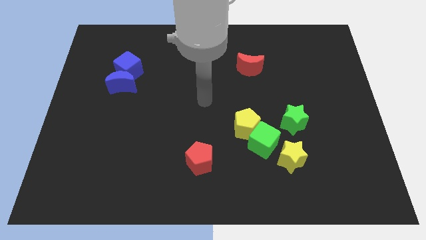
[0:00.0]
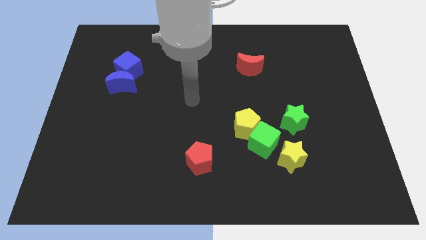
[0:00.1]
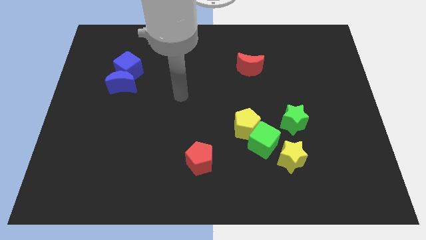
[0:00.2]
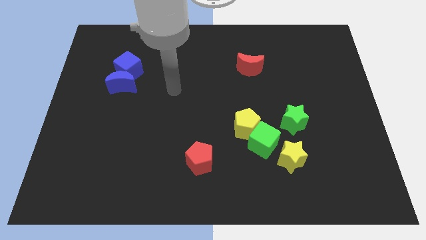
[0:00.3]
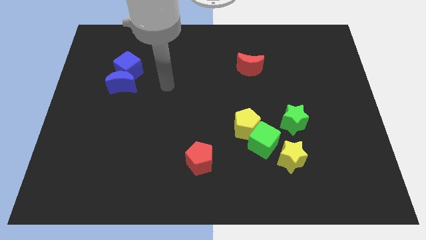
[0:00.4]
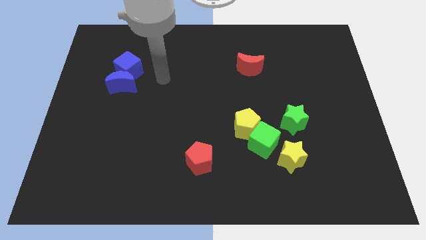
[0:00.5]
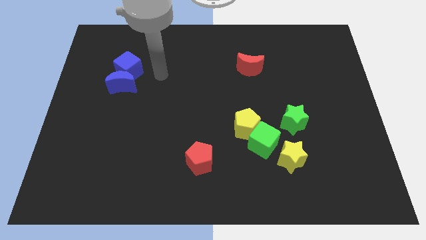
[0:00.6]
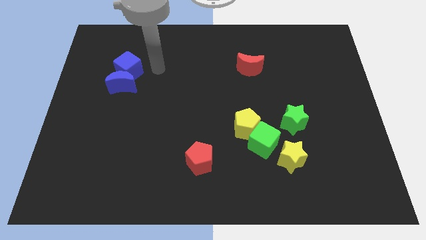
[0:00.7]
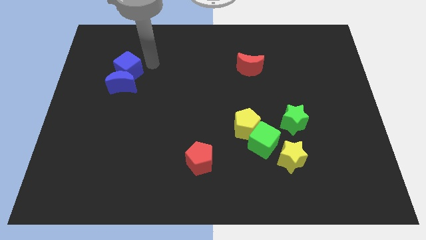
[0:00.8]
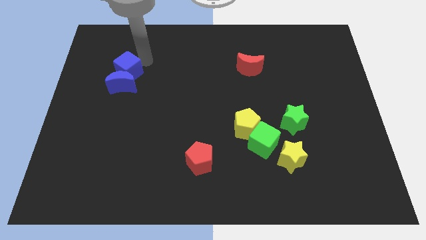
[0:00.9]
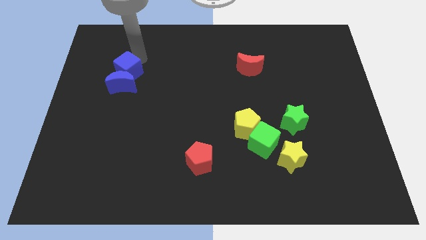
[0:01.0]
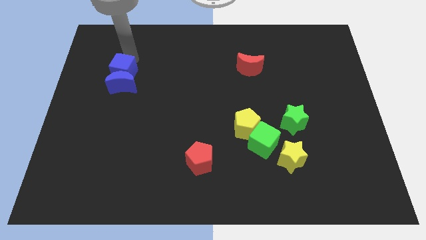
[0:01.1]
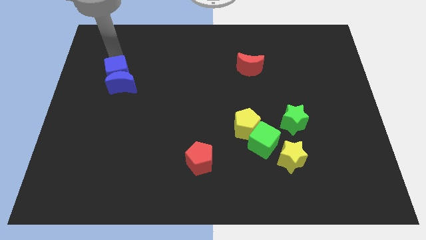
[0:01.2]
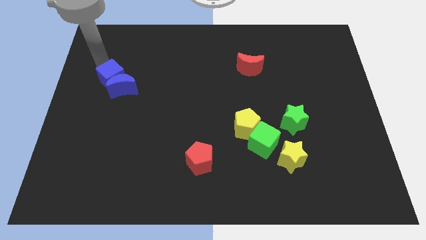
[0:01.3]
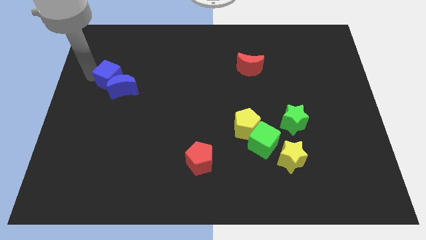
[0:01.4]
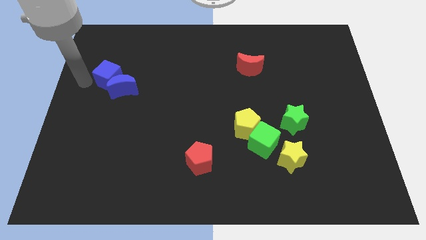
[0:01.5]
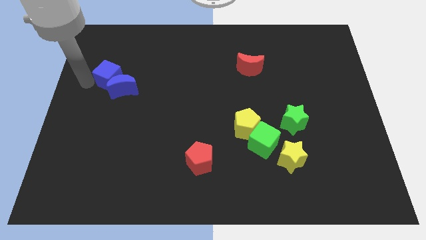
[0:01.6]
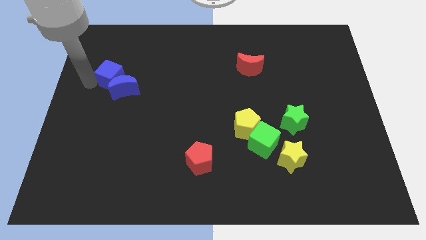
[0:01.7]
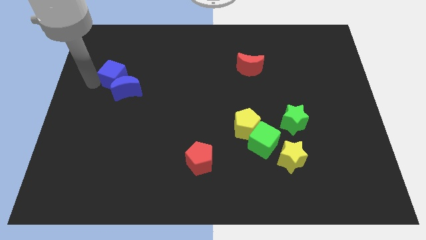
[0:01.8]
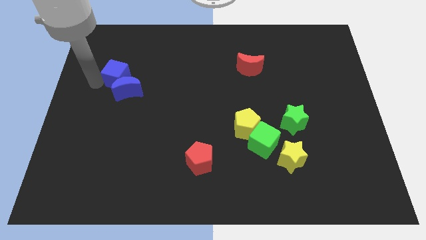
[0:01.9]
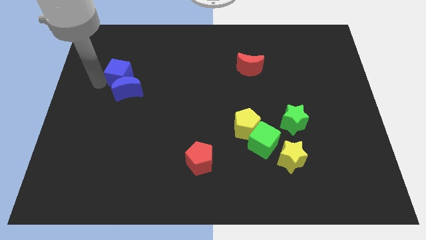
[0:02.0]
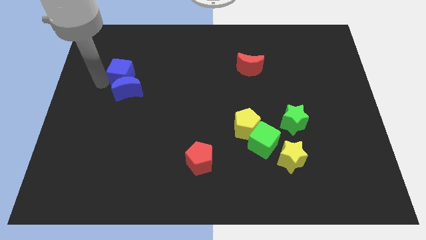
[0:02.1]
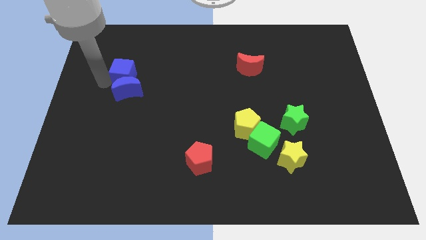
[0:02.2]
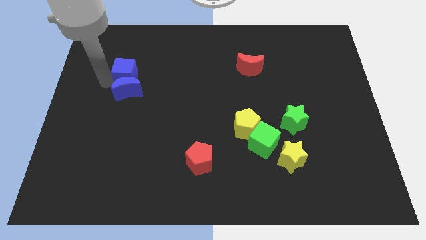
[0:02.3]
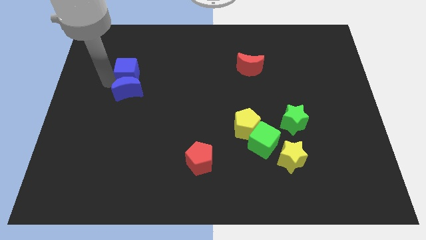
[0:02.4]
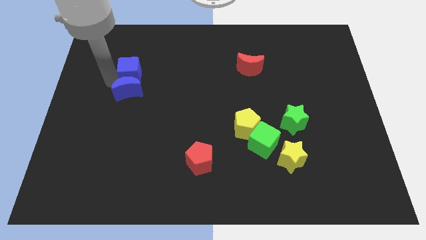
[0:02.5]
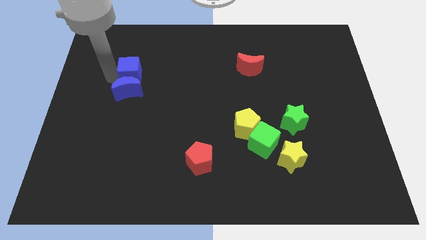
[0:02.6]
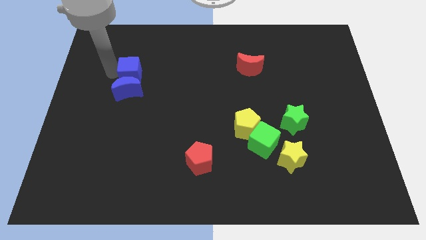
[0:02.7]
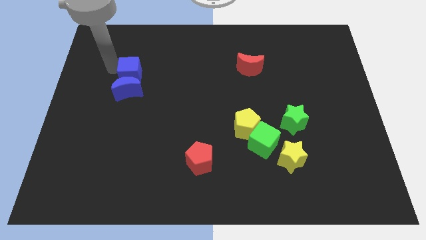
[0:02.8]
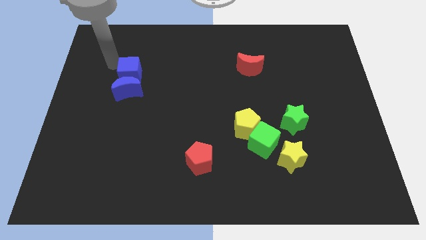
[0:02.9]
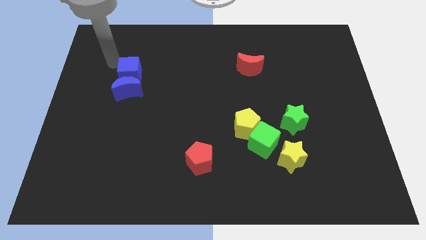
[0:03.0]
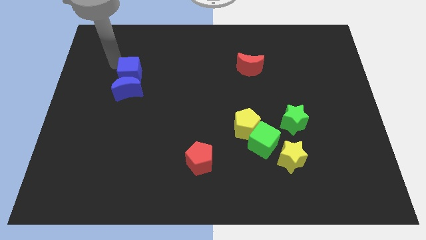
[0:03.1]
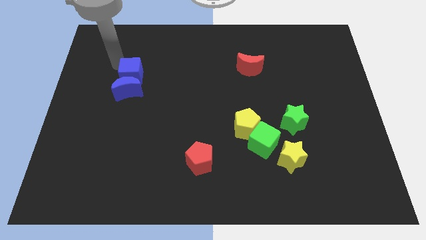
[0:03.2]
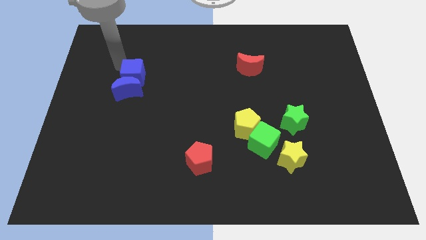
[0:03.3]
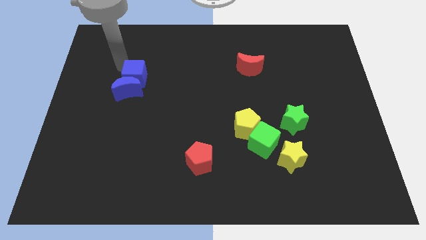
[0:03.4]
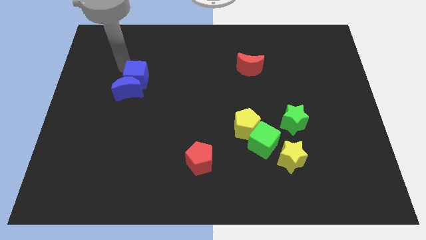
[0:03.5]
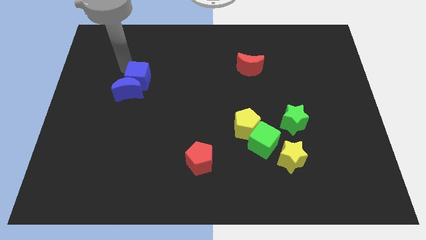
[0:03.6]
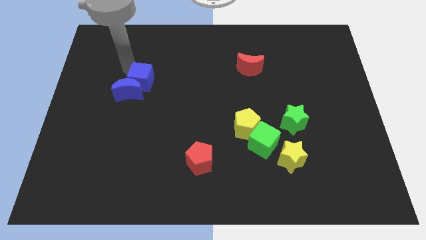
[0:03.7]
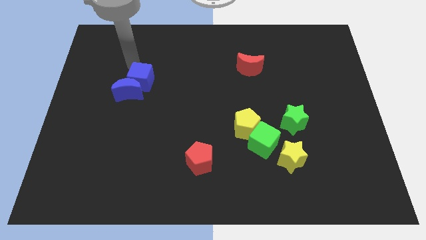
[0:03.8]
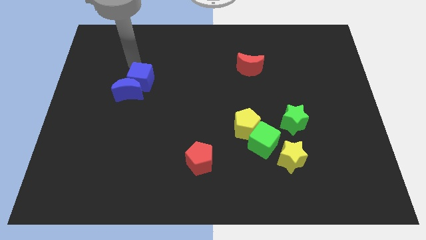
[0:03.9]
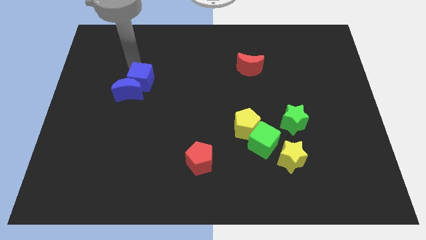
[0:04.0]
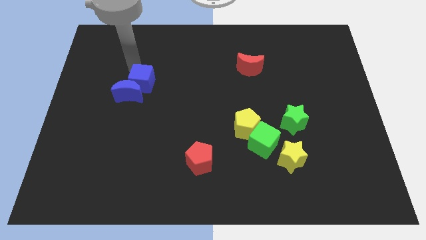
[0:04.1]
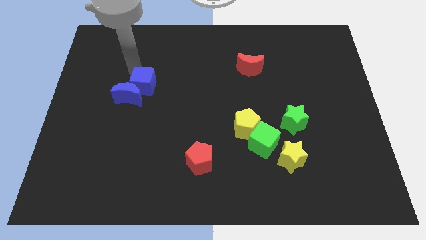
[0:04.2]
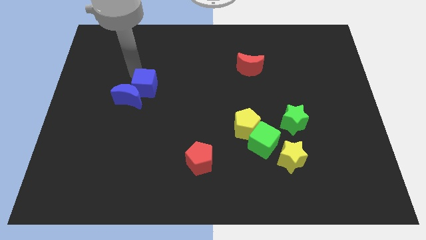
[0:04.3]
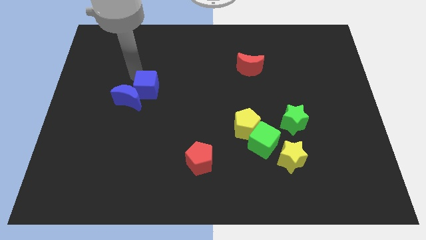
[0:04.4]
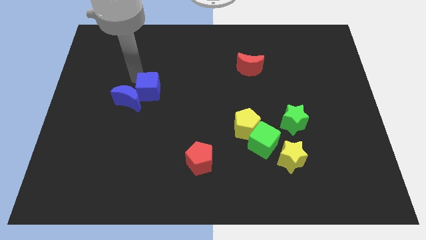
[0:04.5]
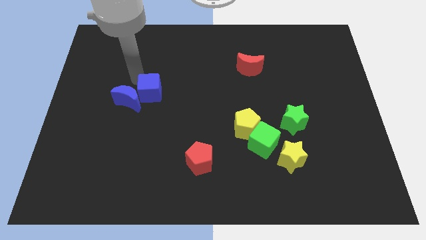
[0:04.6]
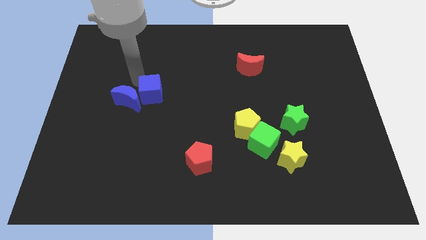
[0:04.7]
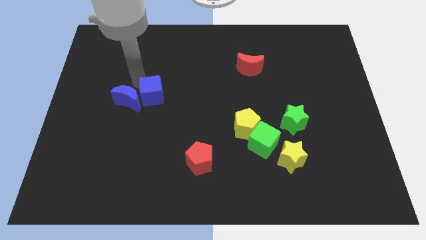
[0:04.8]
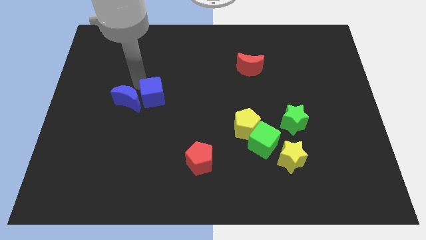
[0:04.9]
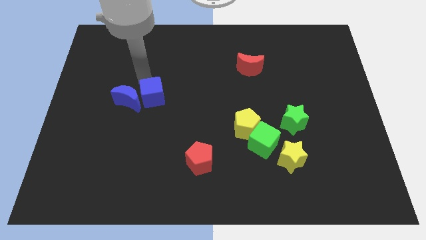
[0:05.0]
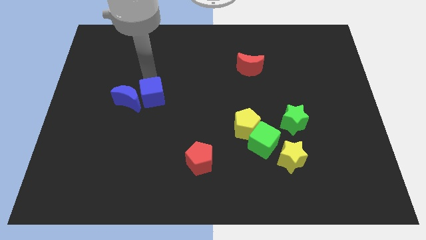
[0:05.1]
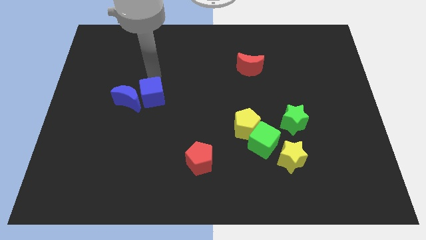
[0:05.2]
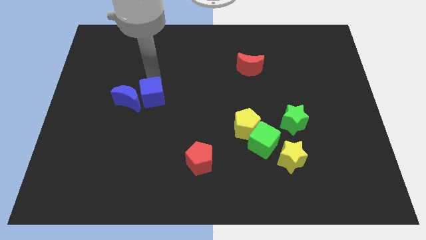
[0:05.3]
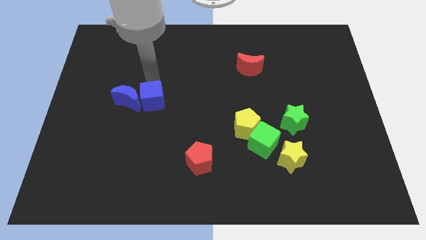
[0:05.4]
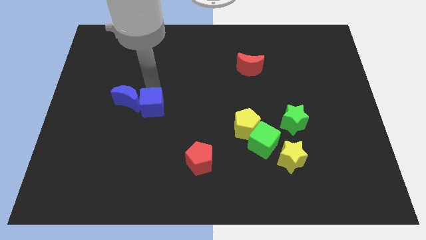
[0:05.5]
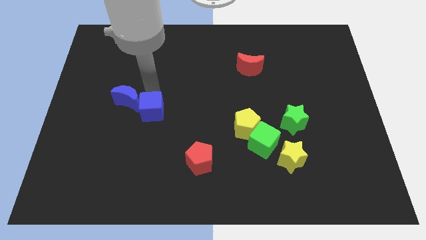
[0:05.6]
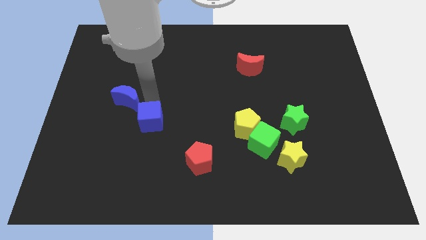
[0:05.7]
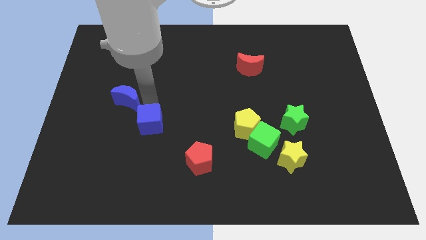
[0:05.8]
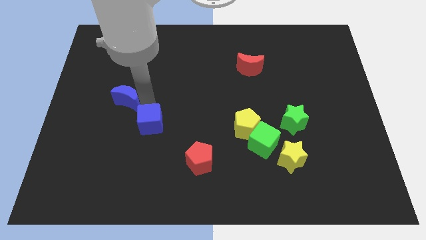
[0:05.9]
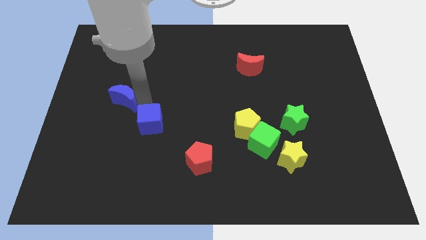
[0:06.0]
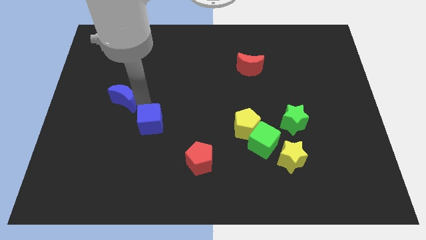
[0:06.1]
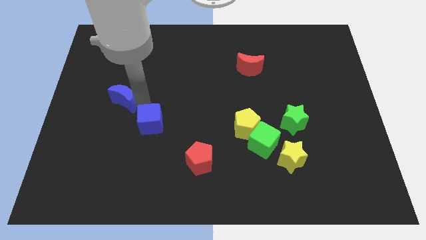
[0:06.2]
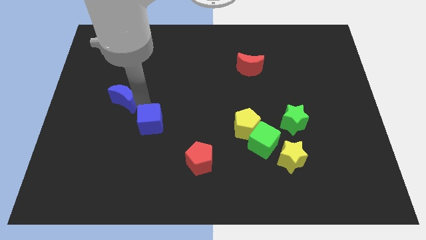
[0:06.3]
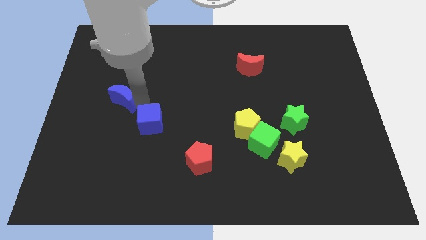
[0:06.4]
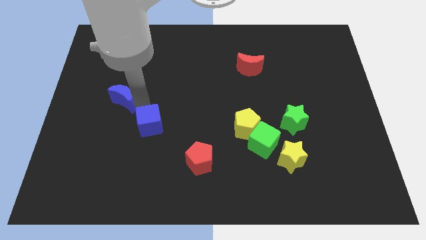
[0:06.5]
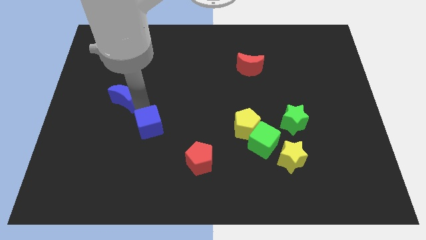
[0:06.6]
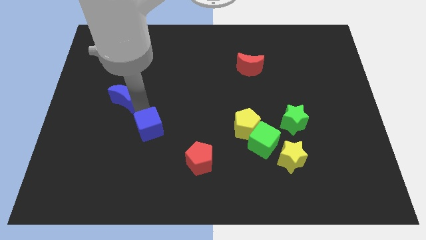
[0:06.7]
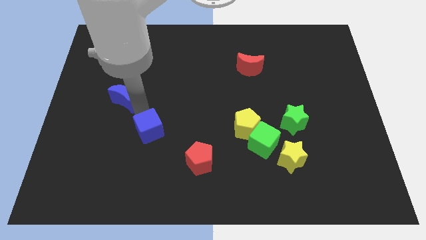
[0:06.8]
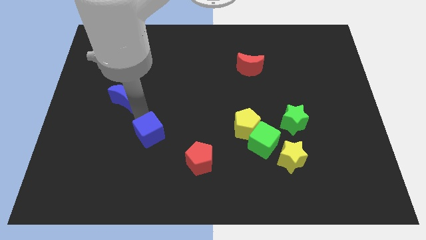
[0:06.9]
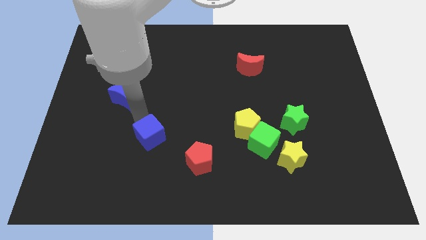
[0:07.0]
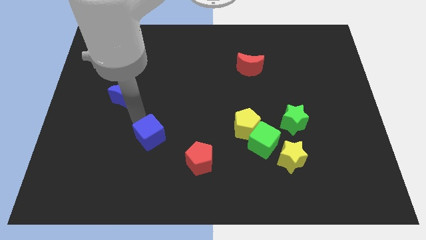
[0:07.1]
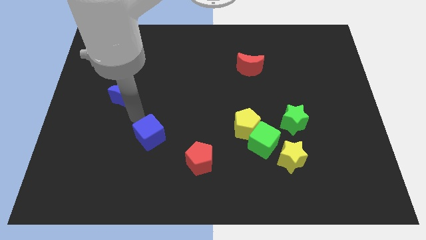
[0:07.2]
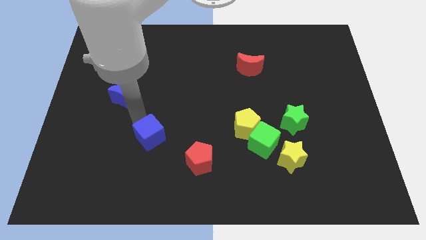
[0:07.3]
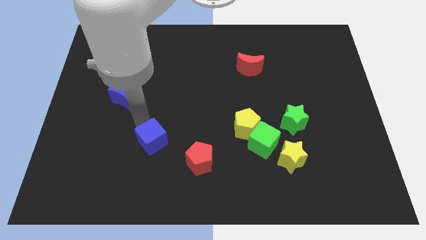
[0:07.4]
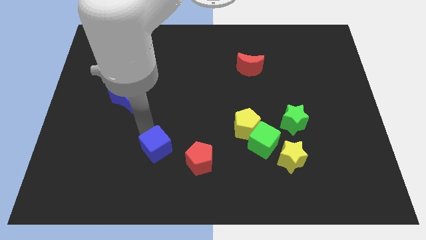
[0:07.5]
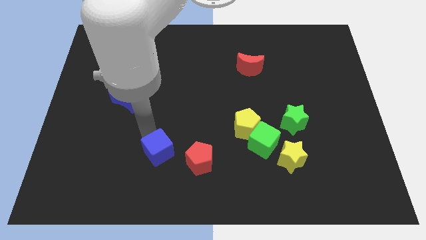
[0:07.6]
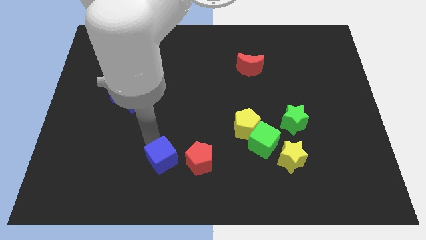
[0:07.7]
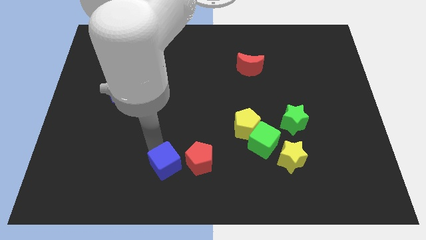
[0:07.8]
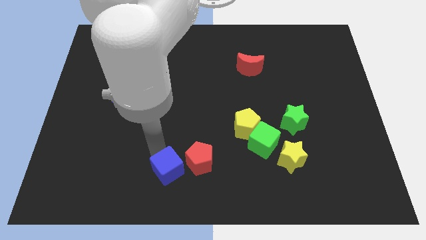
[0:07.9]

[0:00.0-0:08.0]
move the blue cube to the bottom
